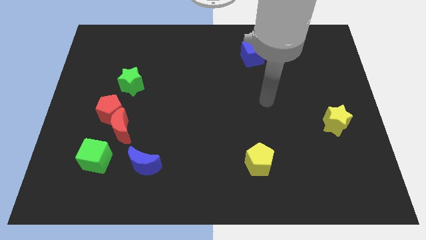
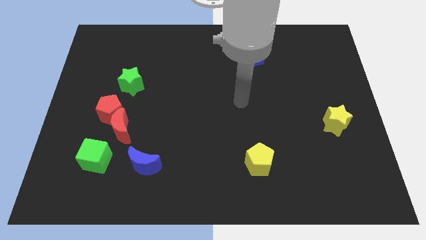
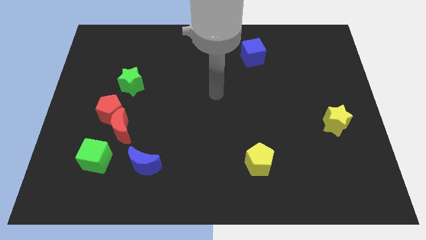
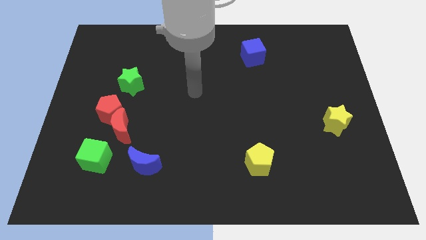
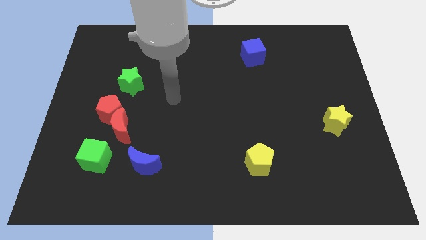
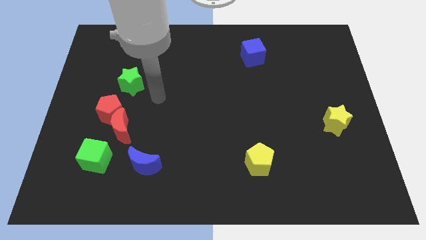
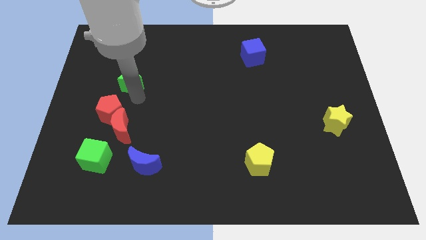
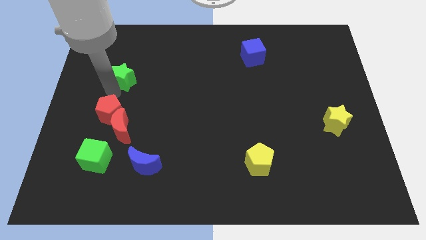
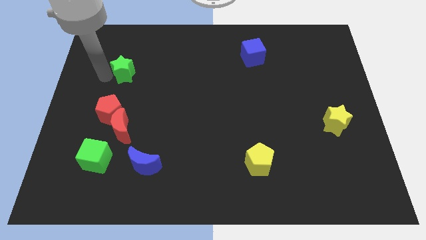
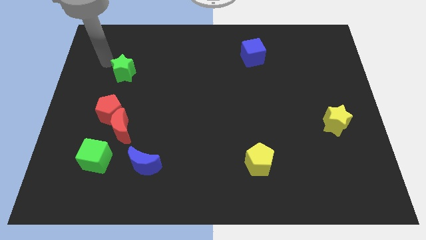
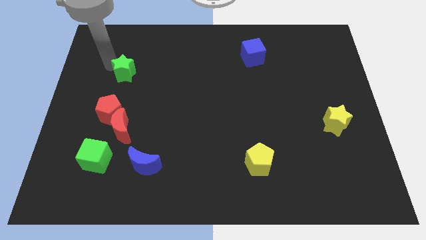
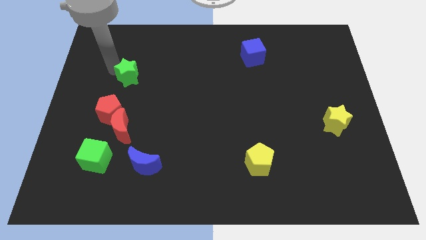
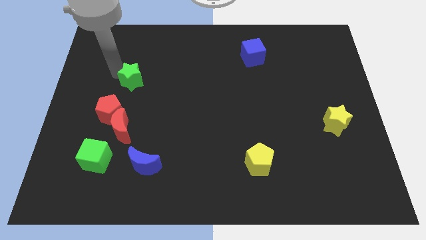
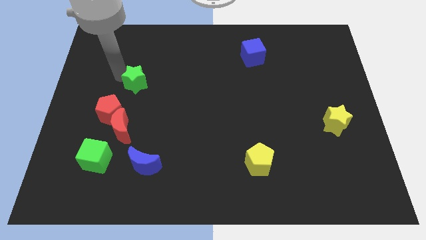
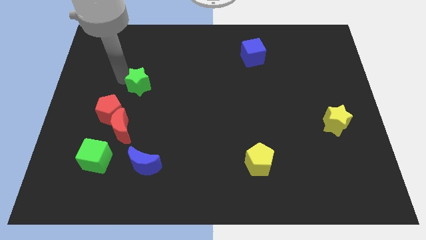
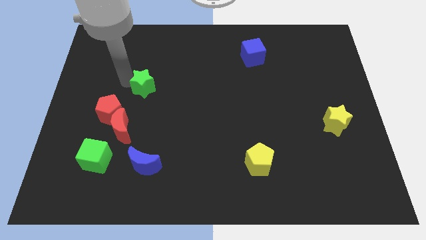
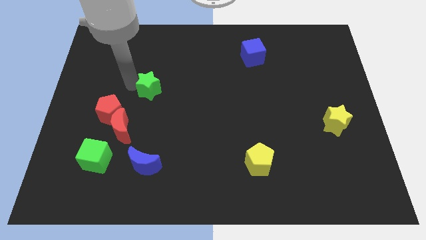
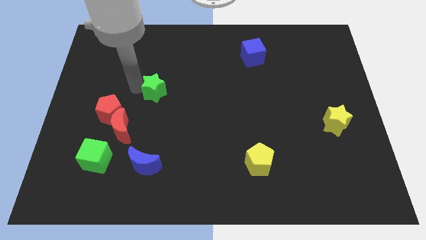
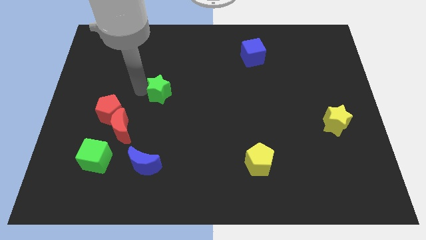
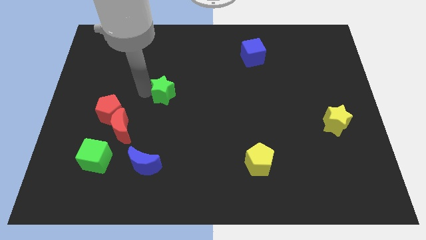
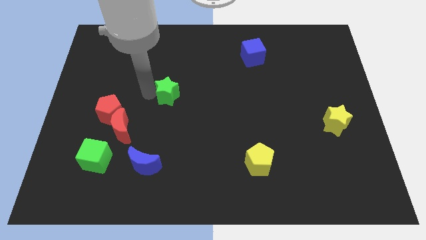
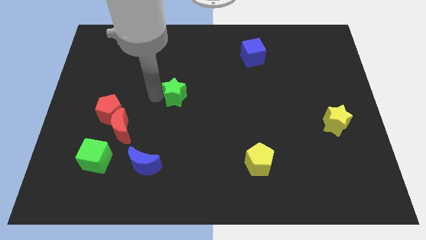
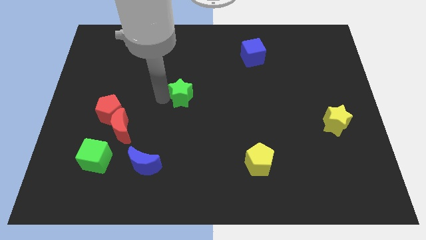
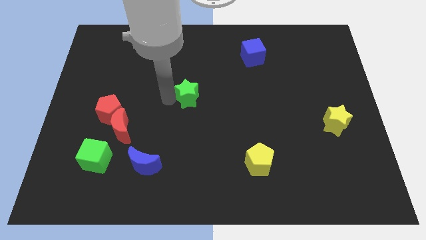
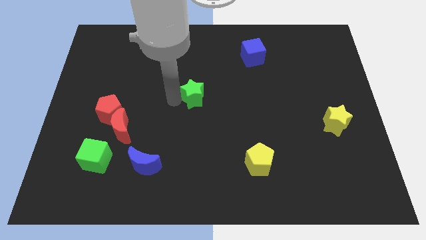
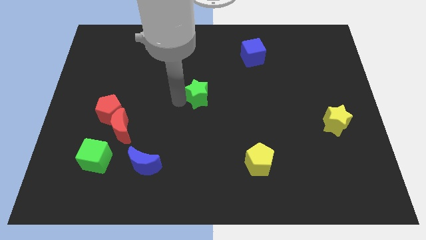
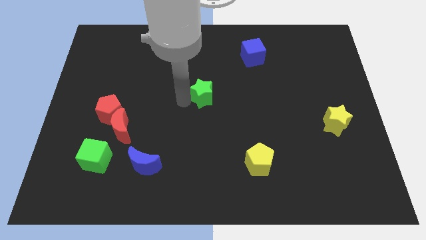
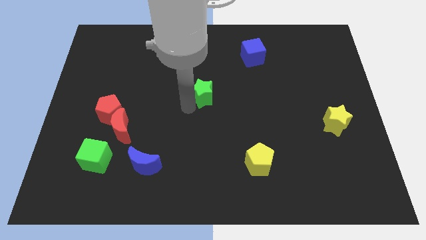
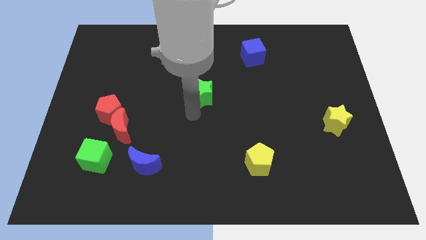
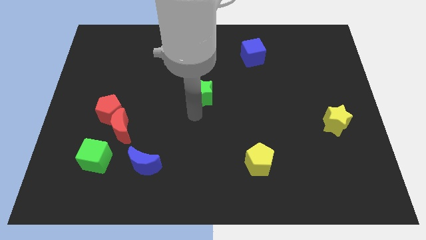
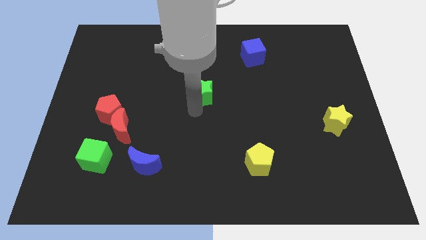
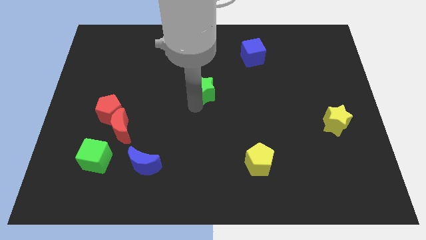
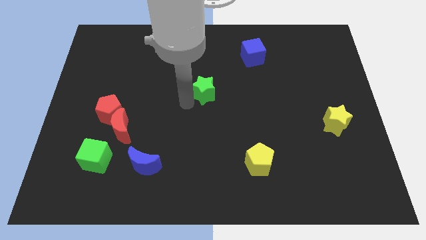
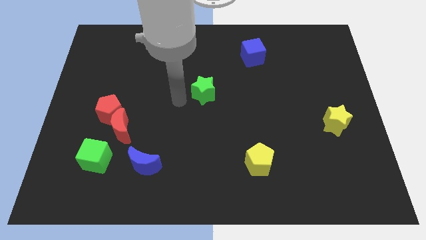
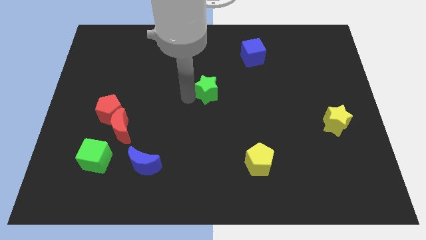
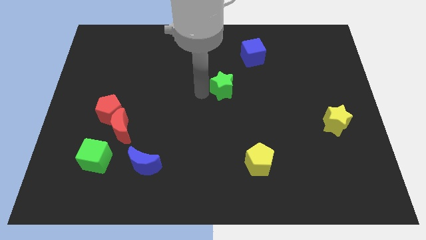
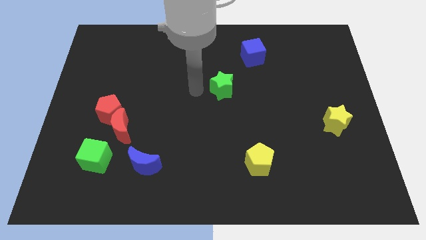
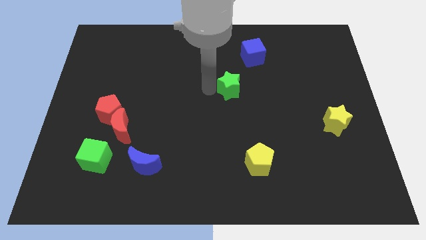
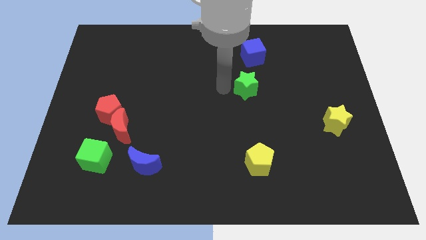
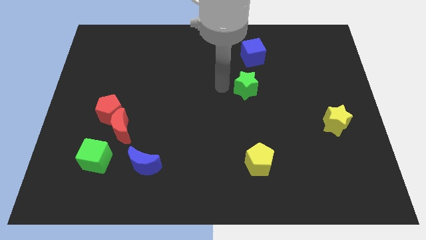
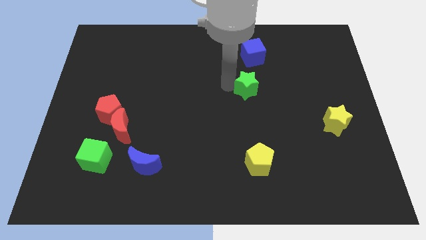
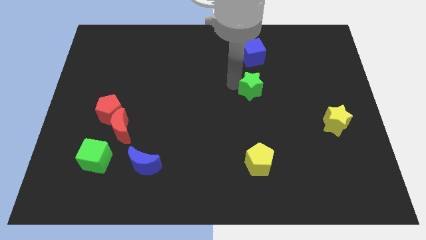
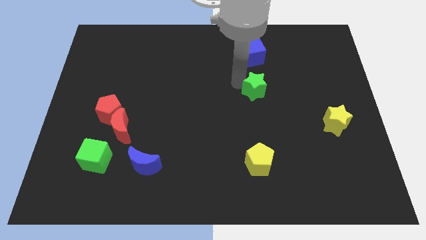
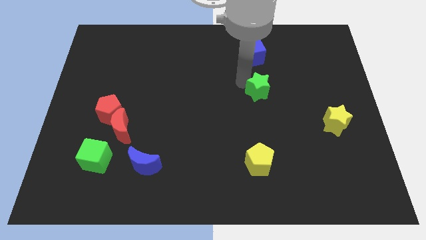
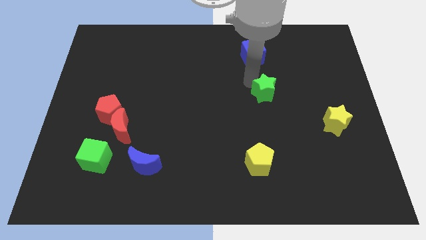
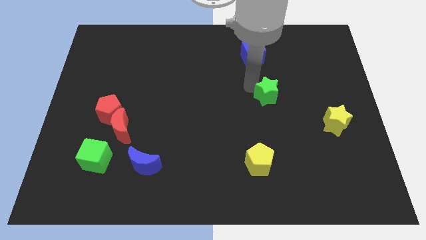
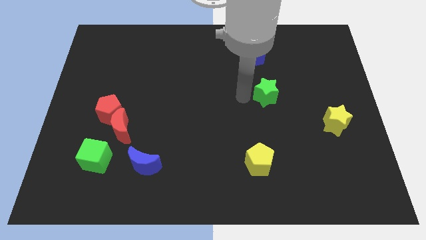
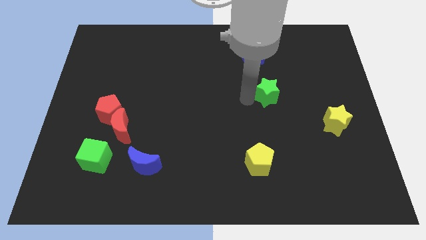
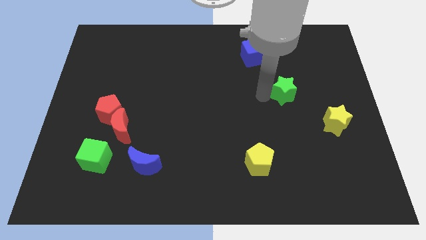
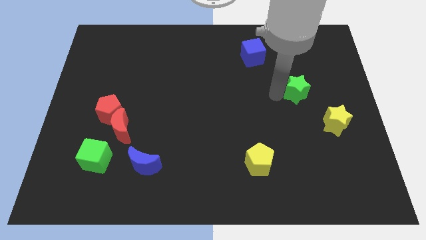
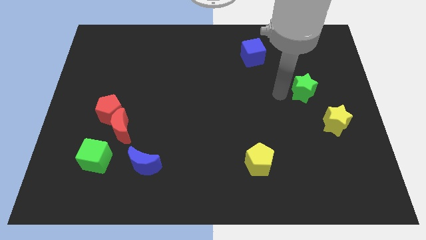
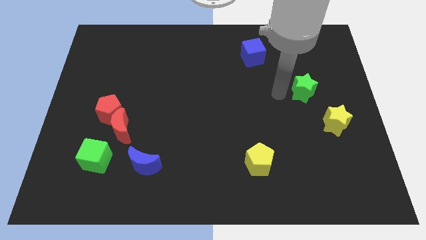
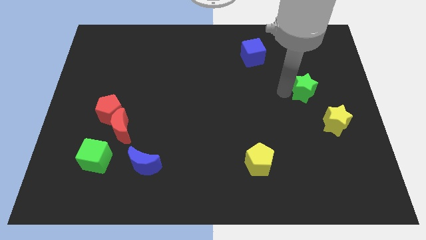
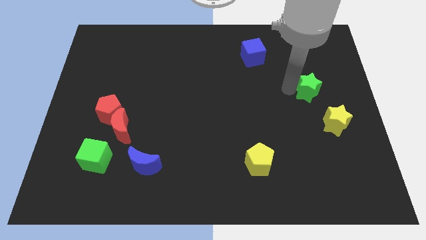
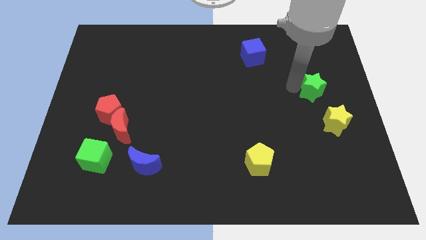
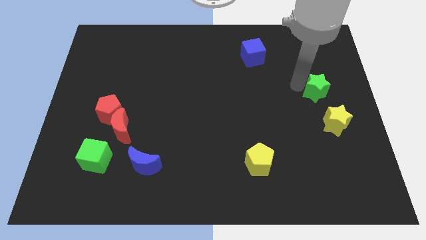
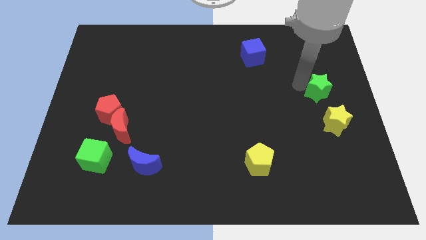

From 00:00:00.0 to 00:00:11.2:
slide the green star to the right side of the board

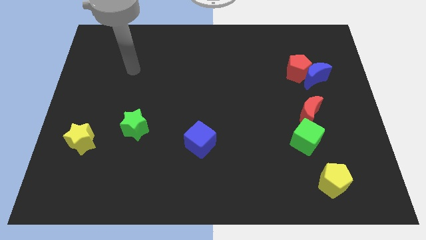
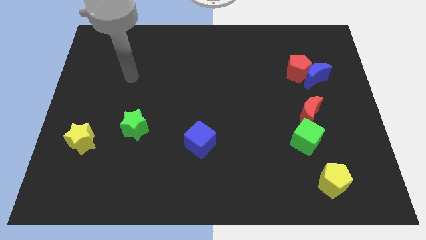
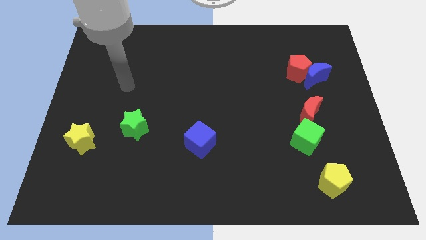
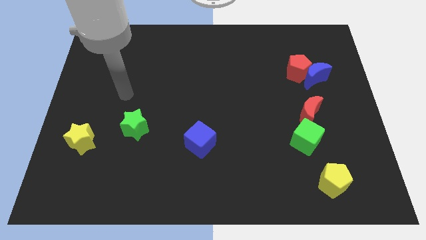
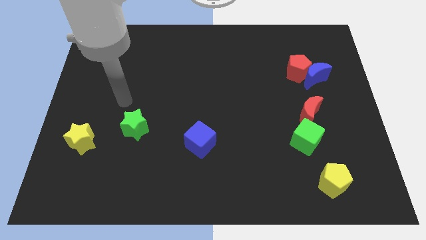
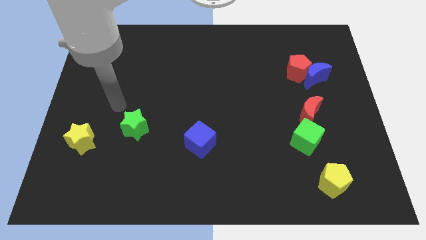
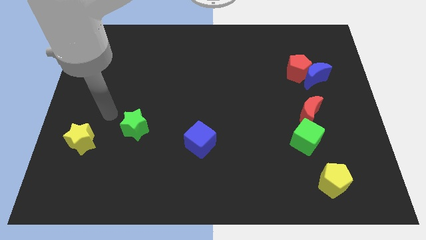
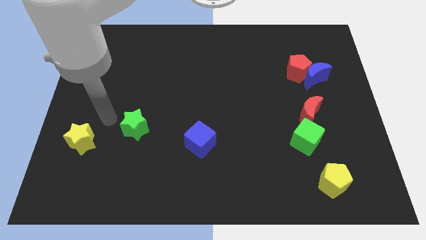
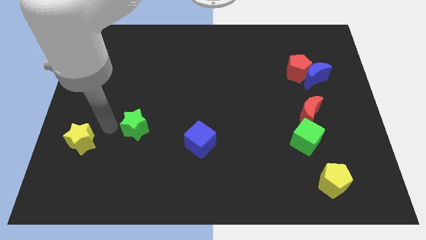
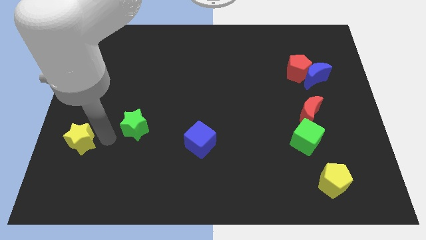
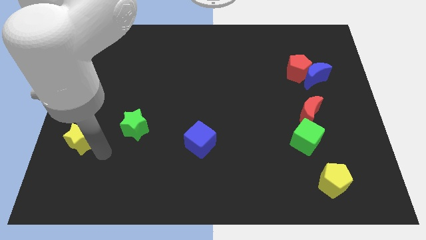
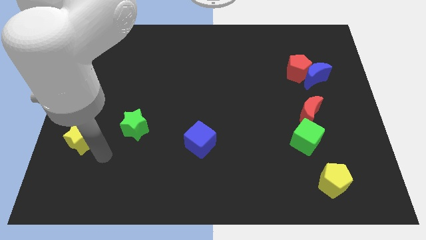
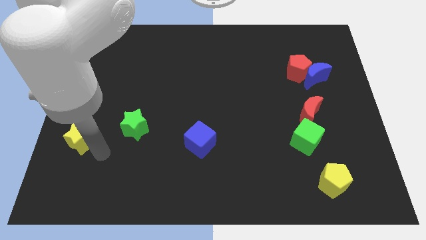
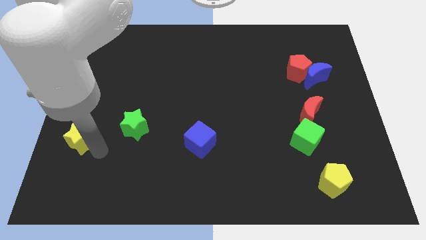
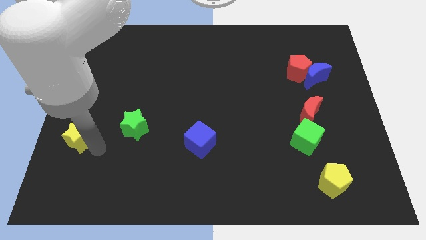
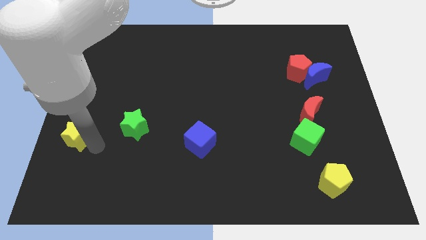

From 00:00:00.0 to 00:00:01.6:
push the yellow star to the center left
